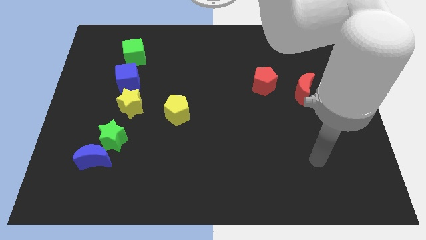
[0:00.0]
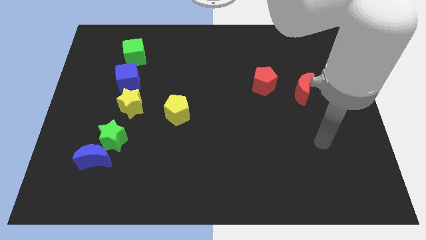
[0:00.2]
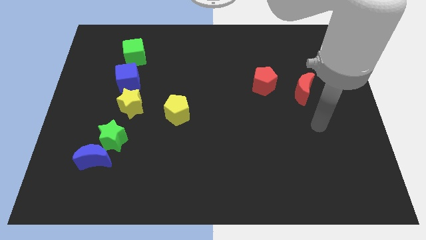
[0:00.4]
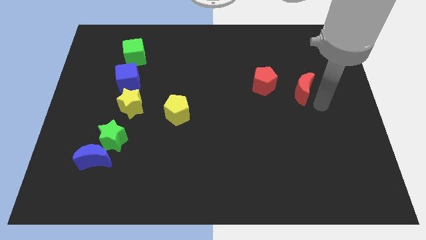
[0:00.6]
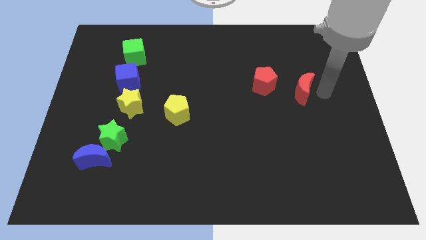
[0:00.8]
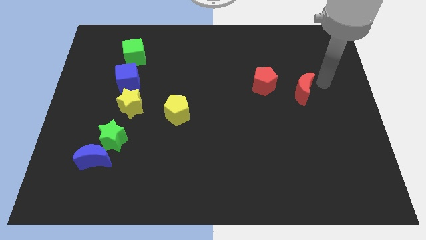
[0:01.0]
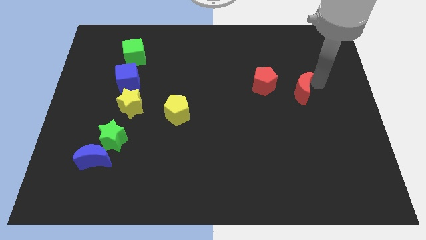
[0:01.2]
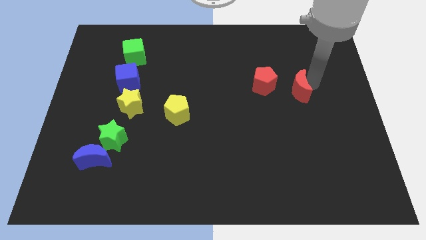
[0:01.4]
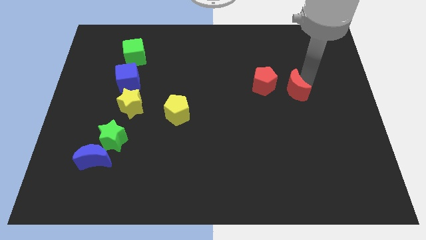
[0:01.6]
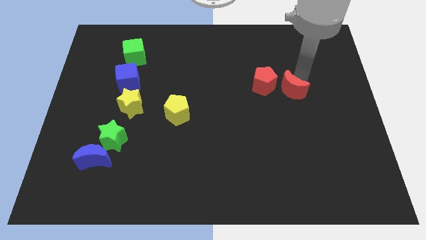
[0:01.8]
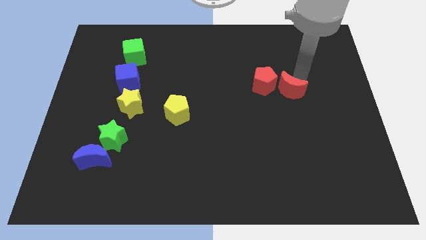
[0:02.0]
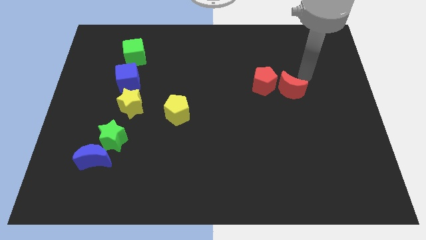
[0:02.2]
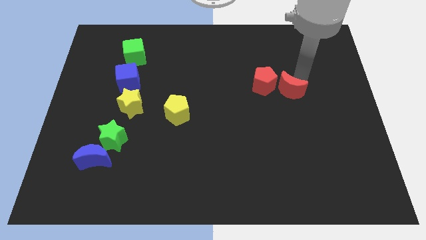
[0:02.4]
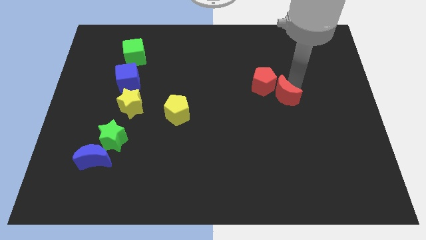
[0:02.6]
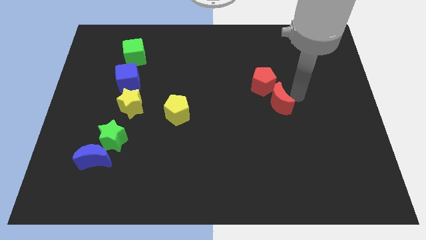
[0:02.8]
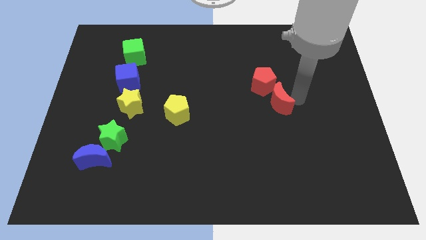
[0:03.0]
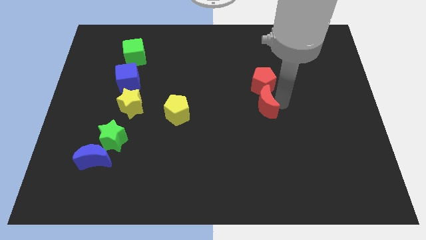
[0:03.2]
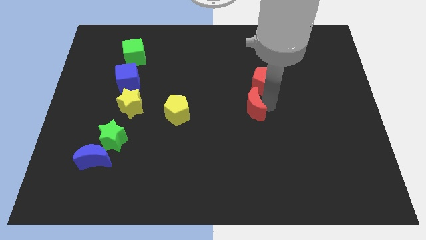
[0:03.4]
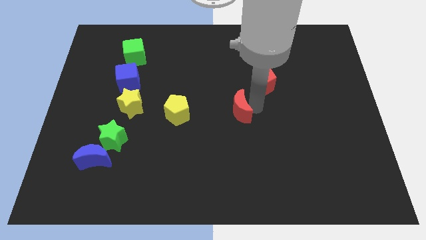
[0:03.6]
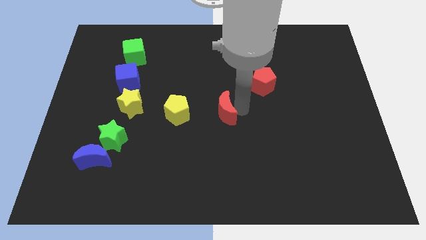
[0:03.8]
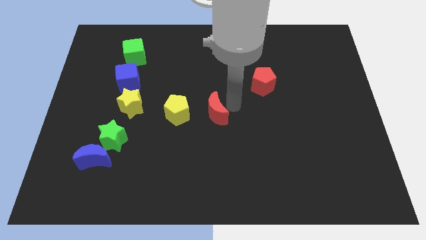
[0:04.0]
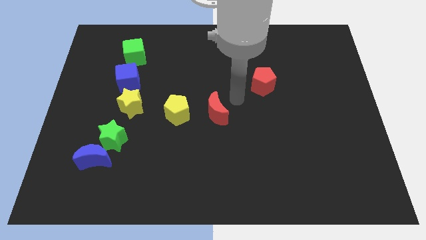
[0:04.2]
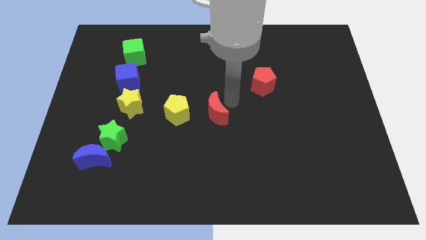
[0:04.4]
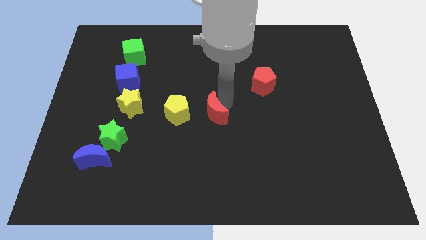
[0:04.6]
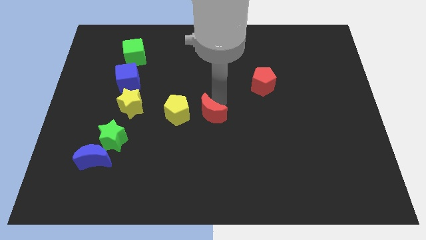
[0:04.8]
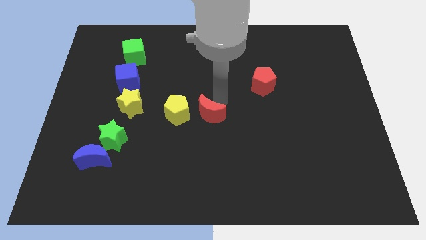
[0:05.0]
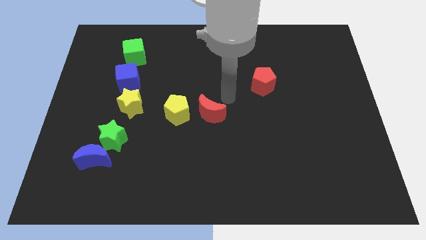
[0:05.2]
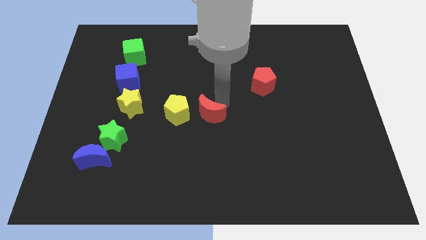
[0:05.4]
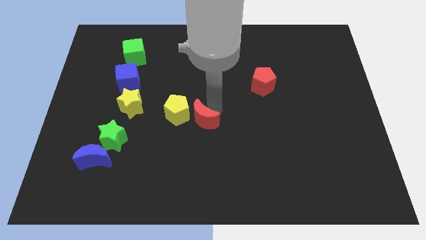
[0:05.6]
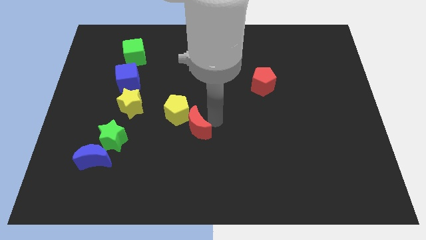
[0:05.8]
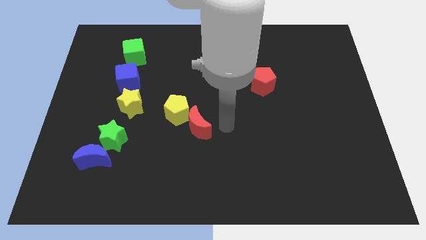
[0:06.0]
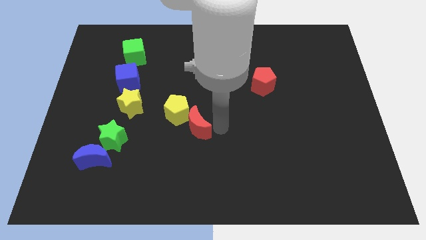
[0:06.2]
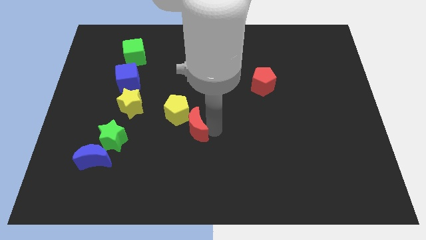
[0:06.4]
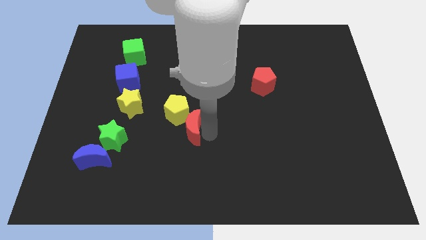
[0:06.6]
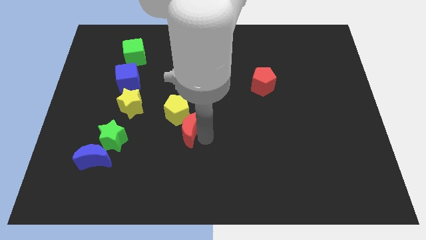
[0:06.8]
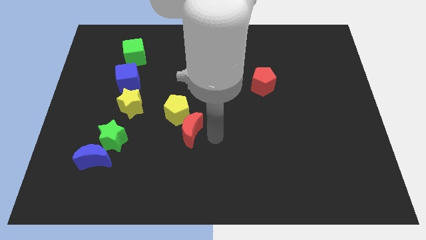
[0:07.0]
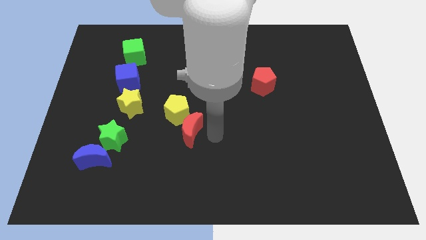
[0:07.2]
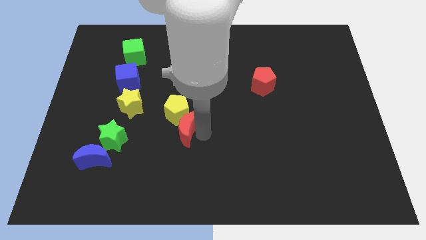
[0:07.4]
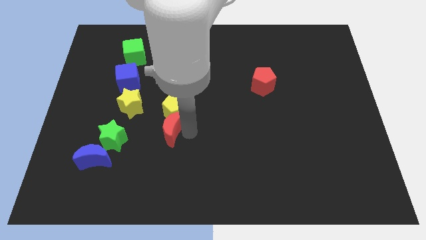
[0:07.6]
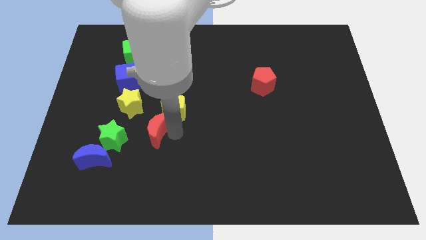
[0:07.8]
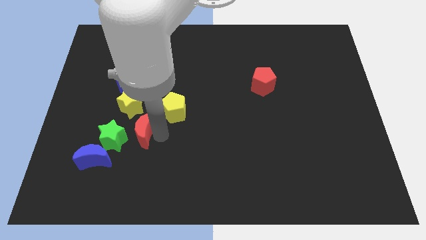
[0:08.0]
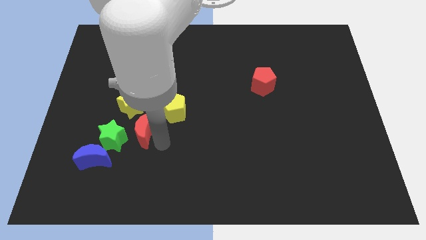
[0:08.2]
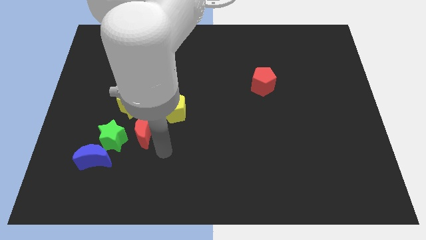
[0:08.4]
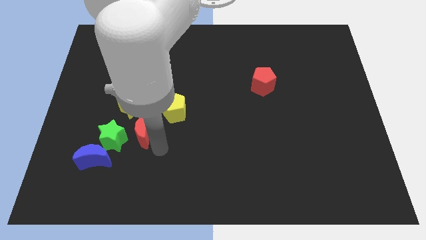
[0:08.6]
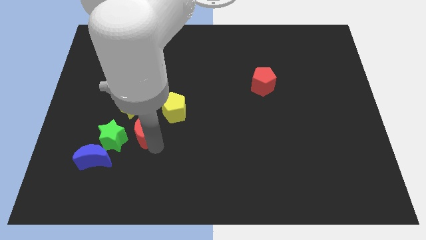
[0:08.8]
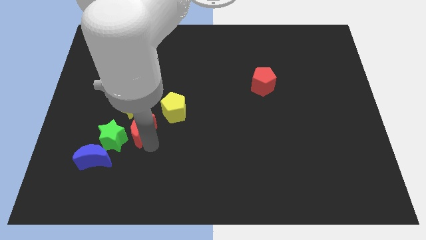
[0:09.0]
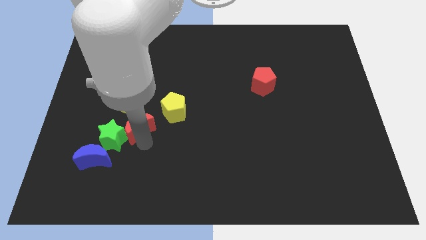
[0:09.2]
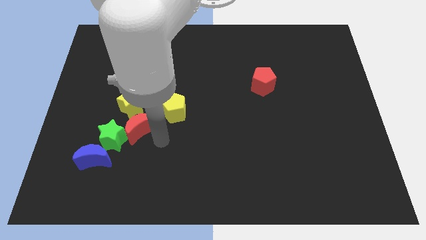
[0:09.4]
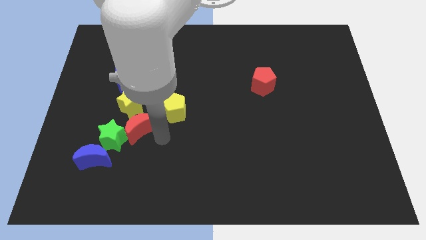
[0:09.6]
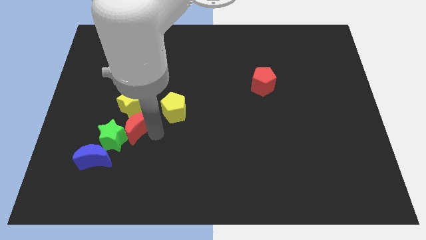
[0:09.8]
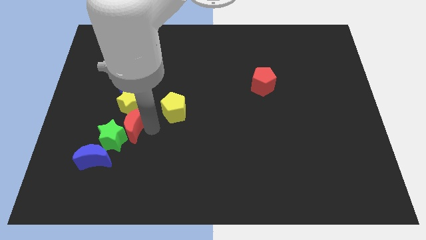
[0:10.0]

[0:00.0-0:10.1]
slide the red moon to the top side of the green star

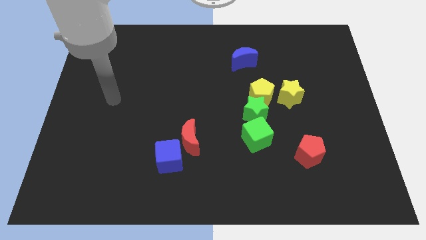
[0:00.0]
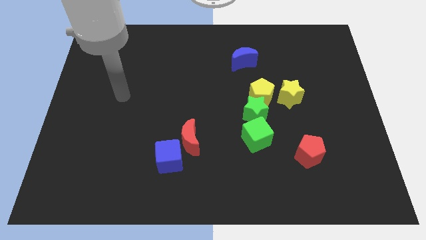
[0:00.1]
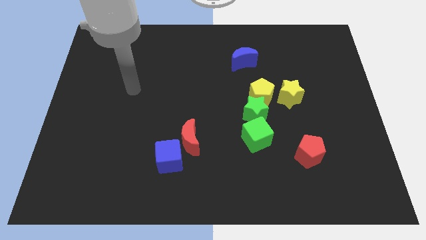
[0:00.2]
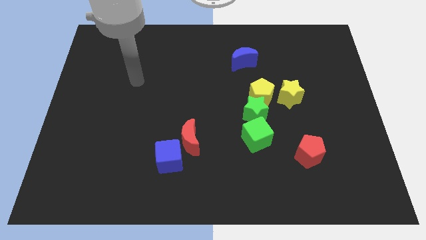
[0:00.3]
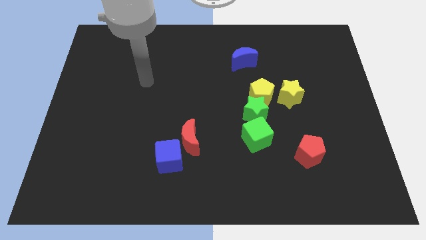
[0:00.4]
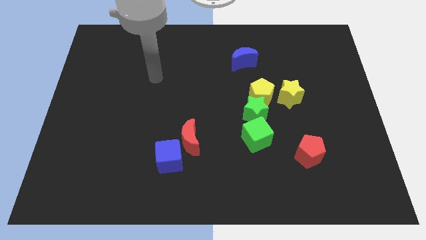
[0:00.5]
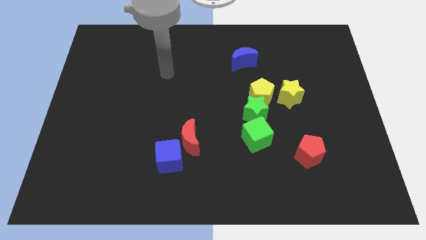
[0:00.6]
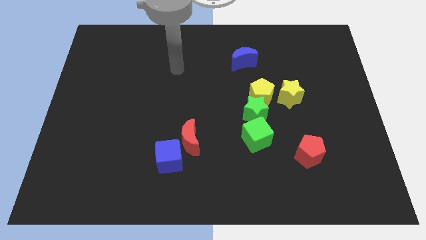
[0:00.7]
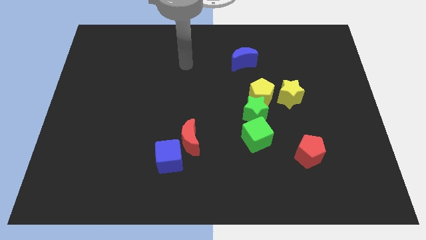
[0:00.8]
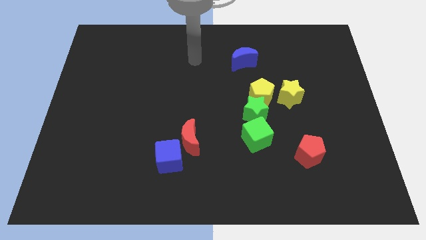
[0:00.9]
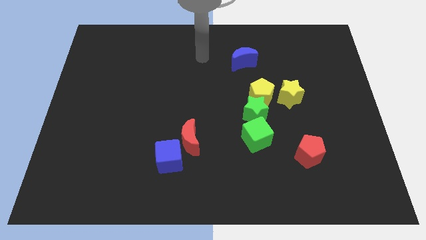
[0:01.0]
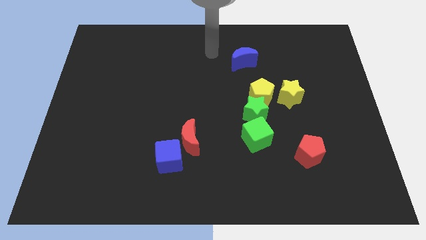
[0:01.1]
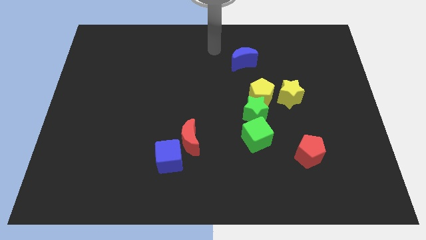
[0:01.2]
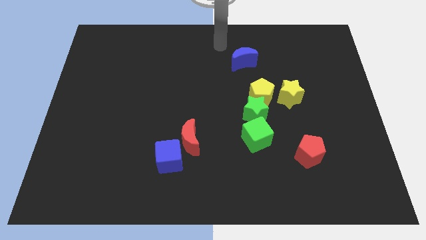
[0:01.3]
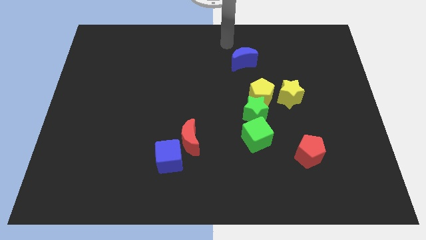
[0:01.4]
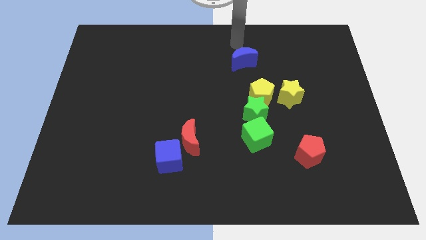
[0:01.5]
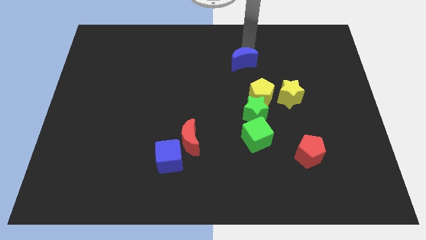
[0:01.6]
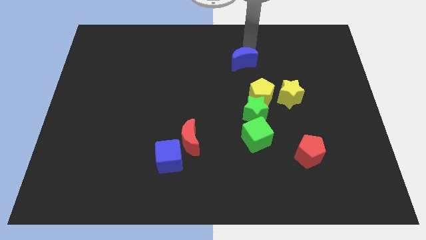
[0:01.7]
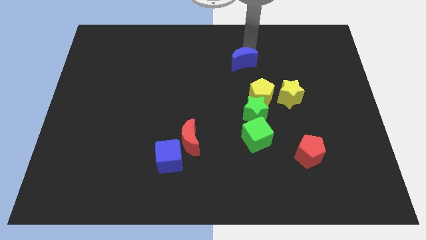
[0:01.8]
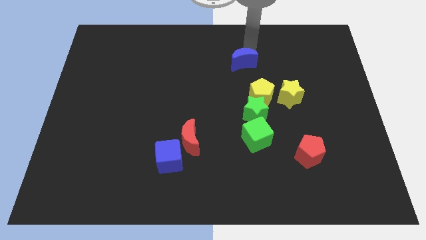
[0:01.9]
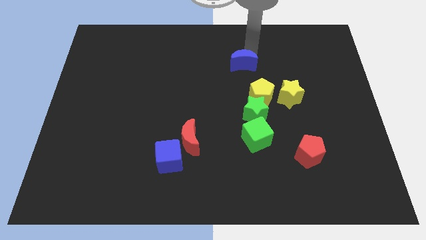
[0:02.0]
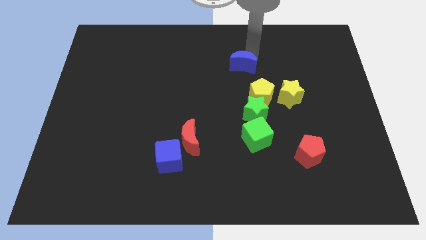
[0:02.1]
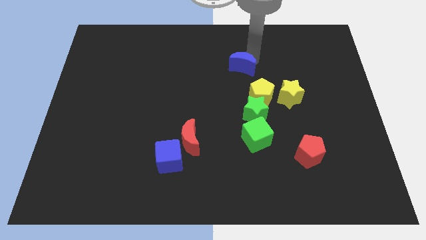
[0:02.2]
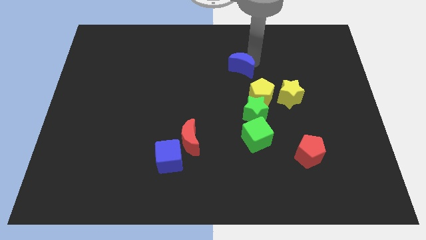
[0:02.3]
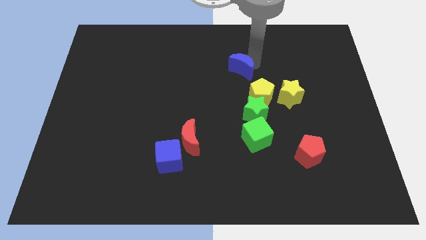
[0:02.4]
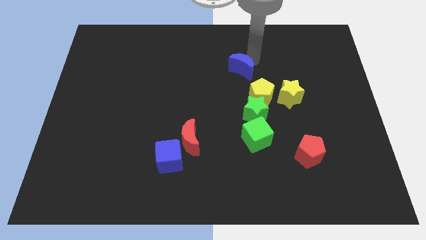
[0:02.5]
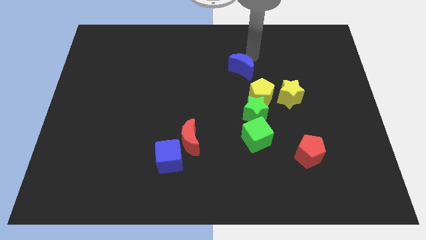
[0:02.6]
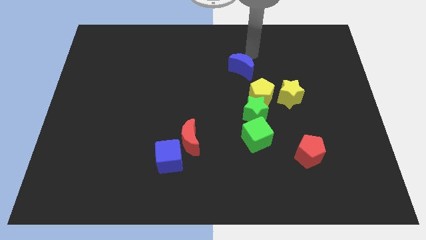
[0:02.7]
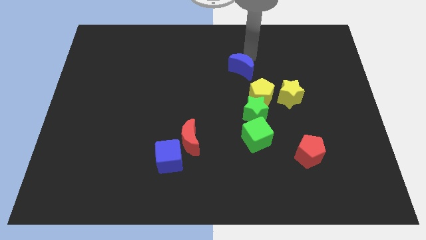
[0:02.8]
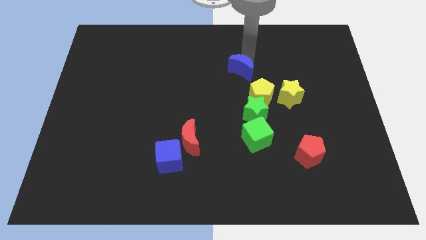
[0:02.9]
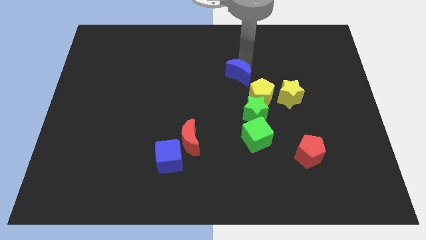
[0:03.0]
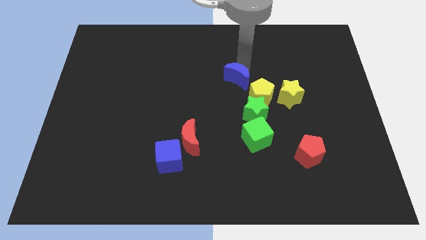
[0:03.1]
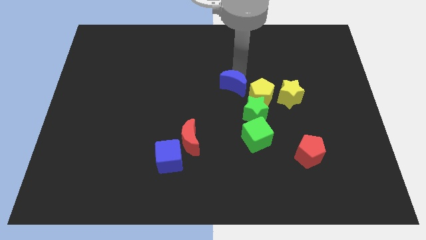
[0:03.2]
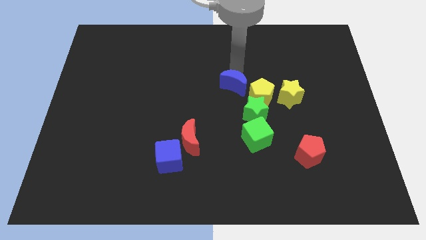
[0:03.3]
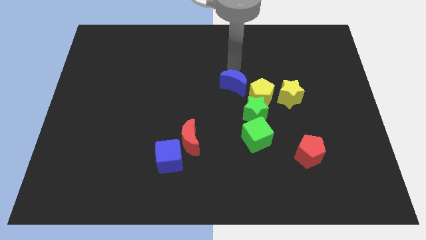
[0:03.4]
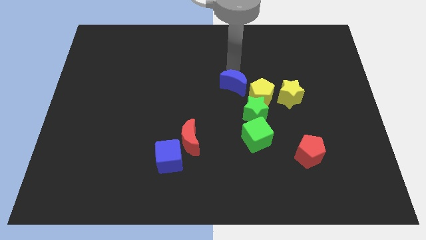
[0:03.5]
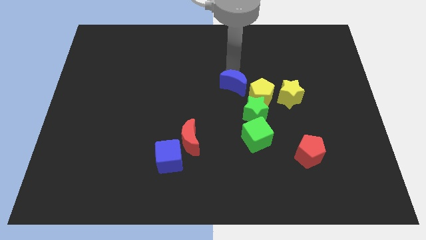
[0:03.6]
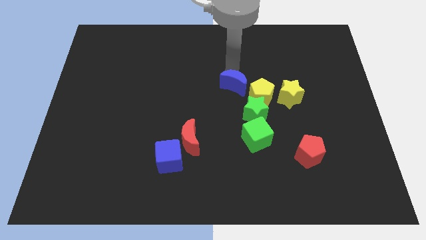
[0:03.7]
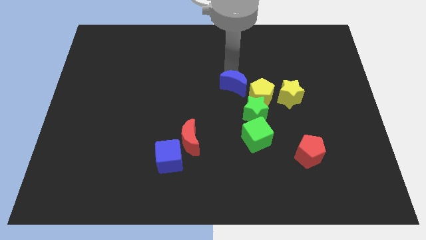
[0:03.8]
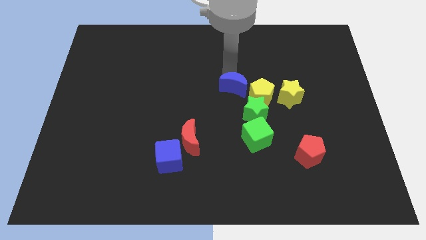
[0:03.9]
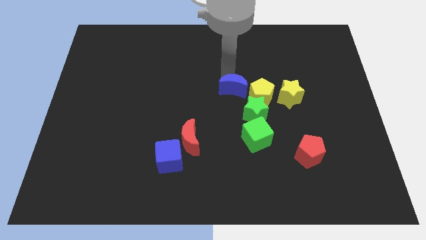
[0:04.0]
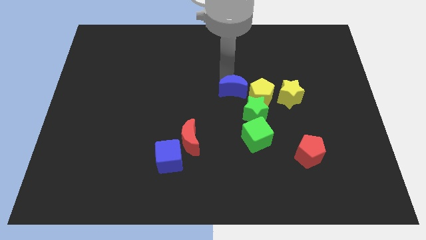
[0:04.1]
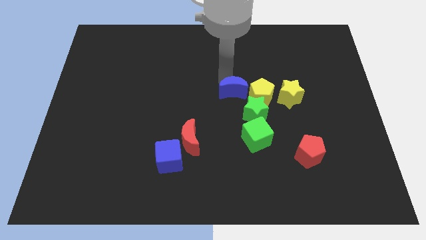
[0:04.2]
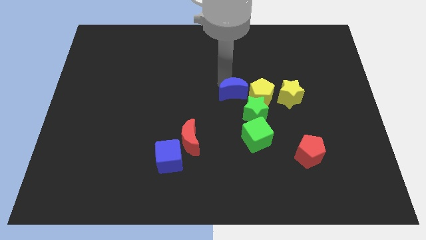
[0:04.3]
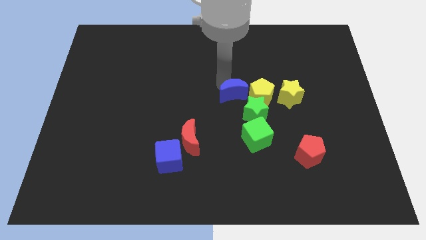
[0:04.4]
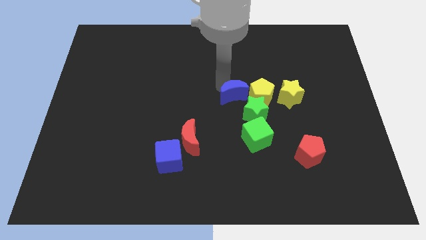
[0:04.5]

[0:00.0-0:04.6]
push the blue moon to the bottom left side of the yellow pentagon
